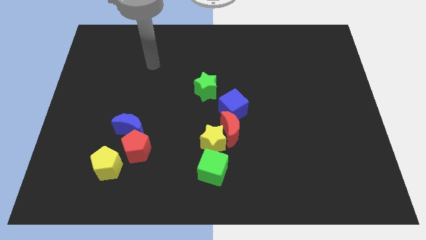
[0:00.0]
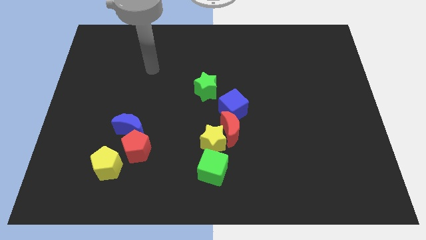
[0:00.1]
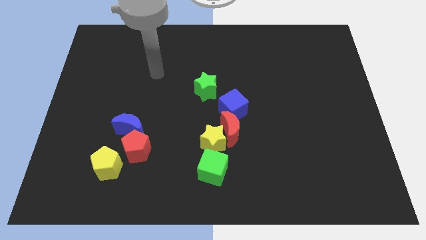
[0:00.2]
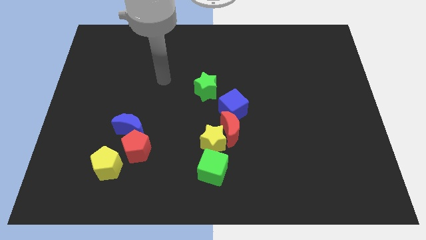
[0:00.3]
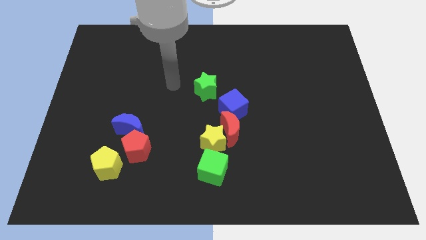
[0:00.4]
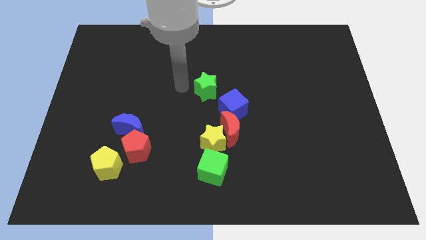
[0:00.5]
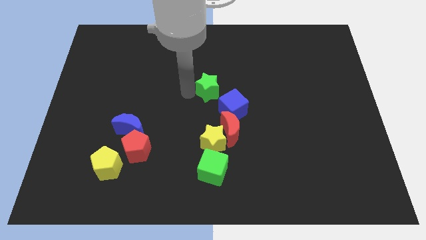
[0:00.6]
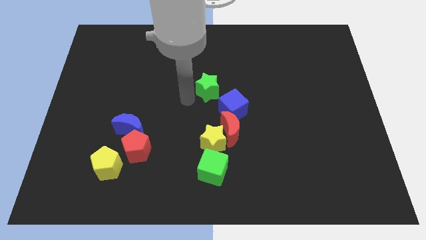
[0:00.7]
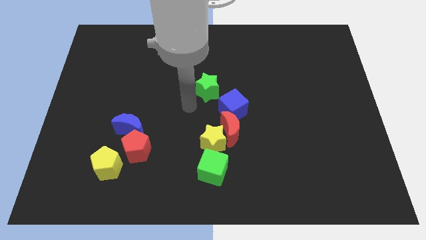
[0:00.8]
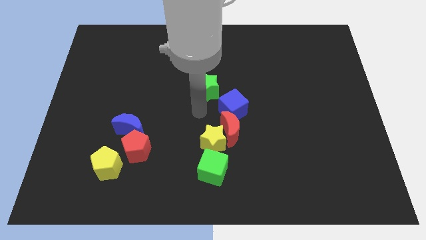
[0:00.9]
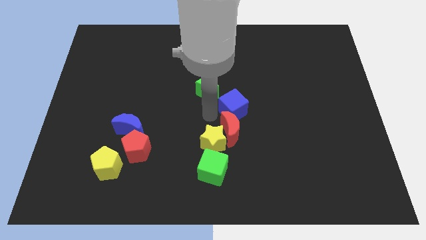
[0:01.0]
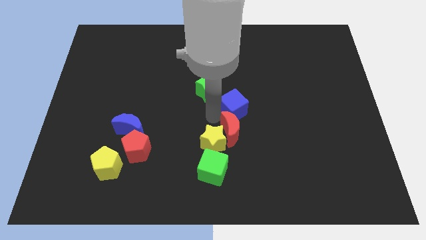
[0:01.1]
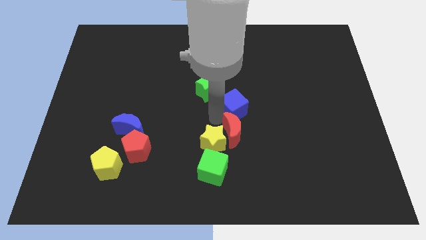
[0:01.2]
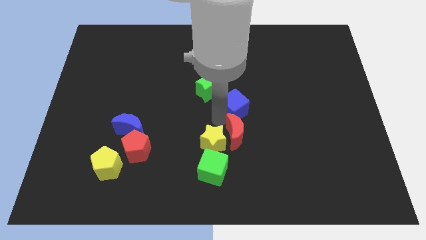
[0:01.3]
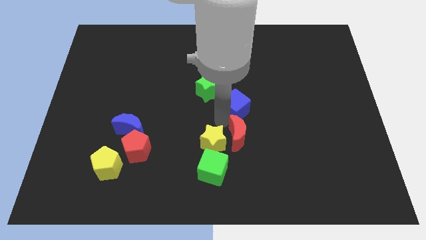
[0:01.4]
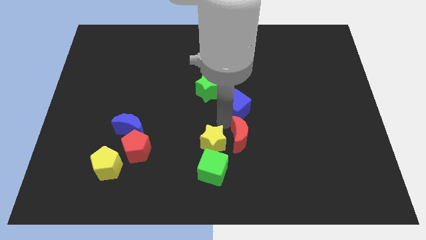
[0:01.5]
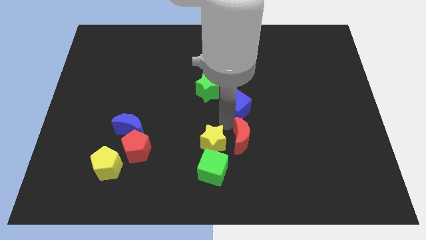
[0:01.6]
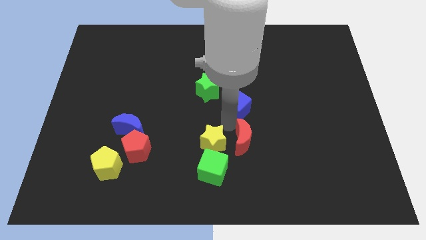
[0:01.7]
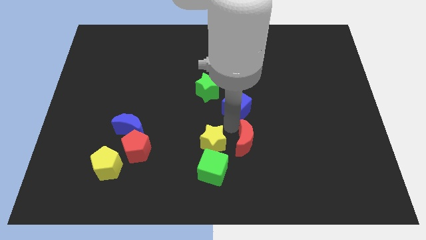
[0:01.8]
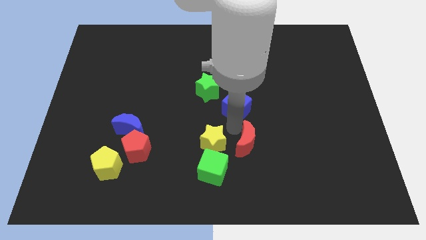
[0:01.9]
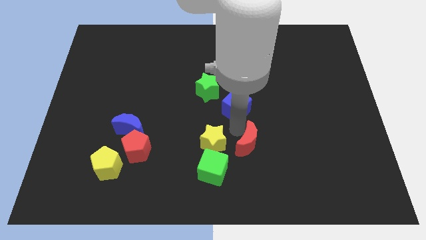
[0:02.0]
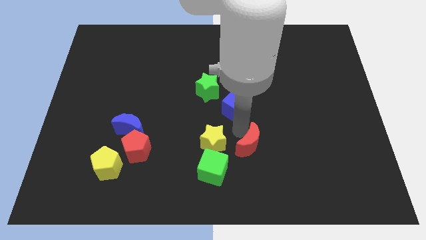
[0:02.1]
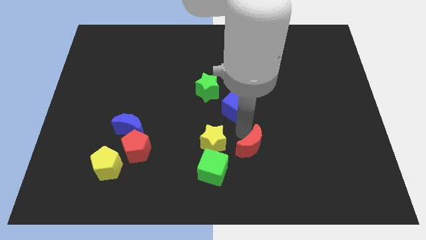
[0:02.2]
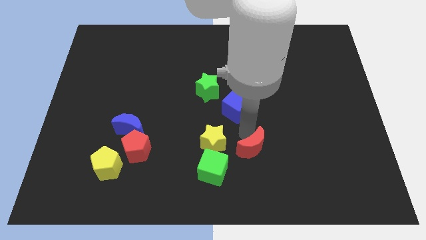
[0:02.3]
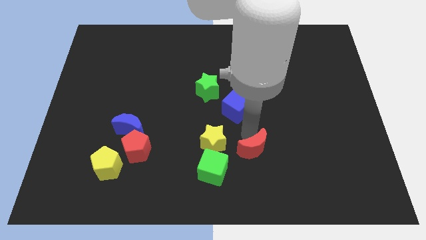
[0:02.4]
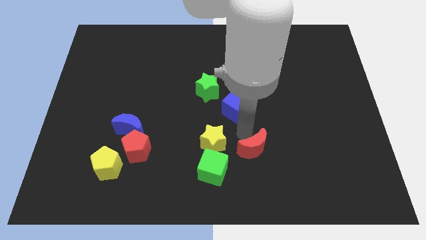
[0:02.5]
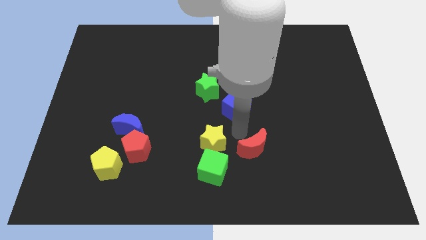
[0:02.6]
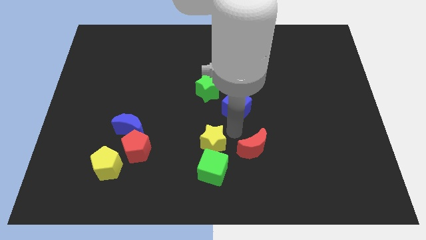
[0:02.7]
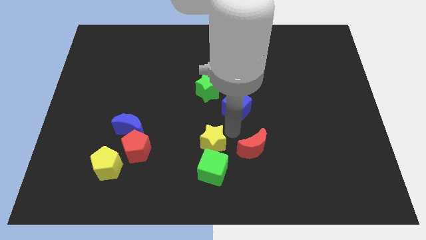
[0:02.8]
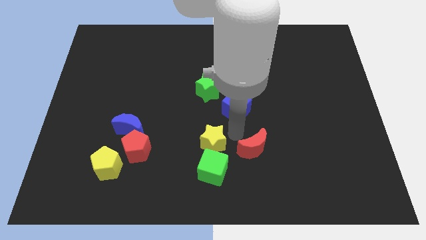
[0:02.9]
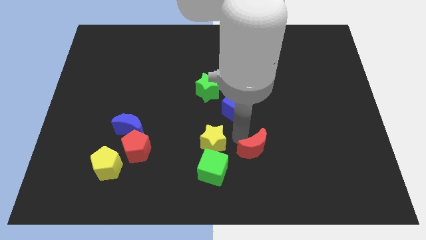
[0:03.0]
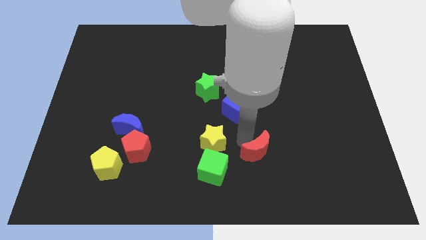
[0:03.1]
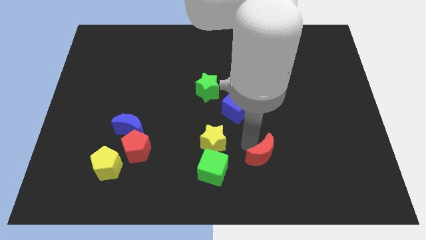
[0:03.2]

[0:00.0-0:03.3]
separate the red moon from the yellow star and blue cube

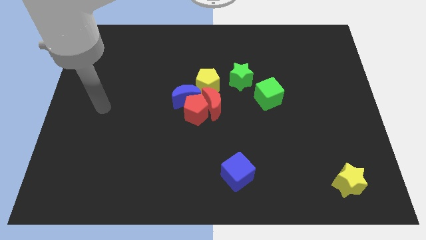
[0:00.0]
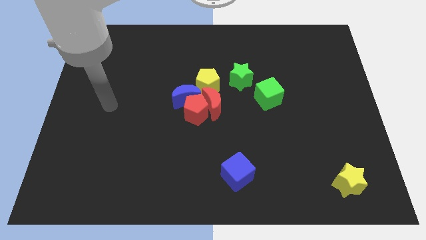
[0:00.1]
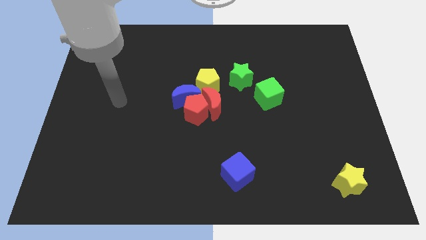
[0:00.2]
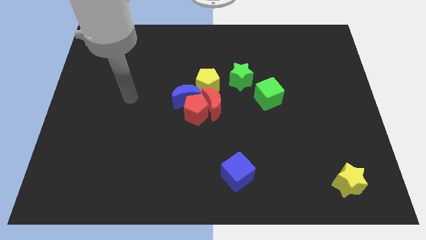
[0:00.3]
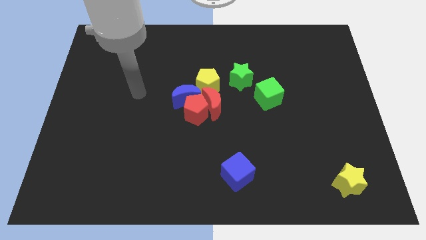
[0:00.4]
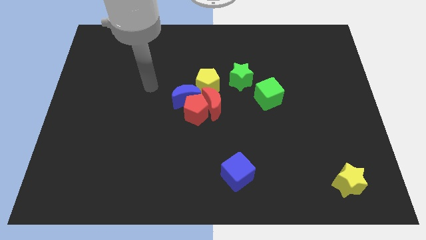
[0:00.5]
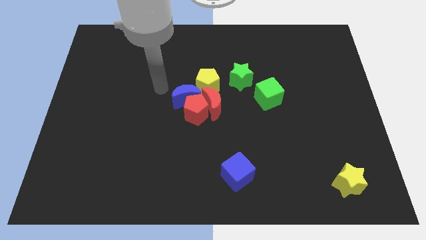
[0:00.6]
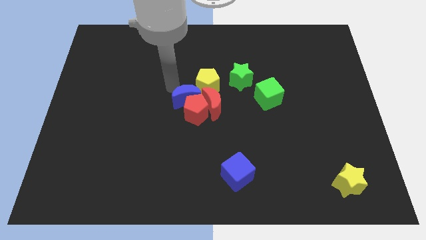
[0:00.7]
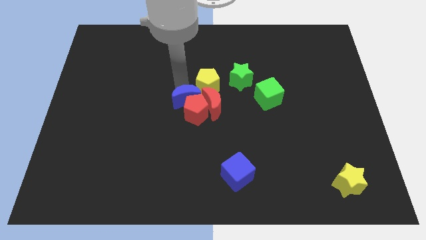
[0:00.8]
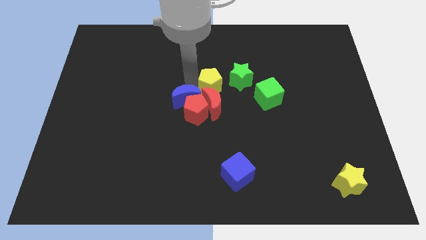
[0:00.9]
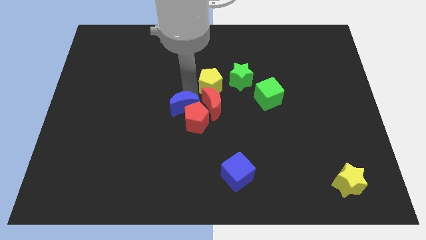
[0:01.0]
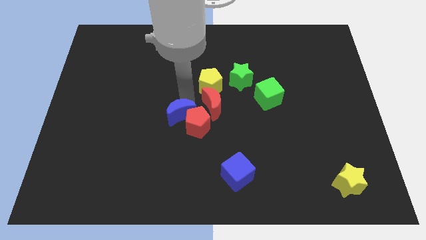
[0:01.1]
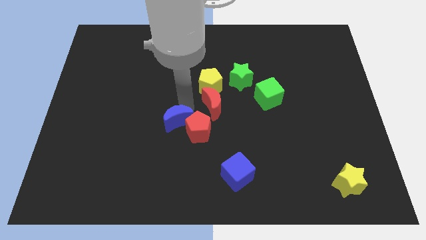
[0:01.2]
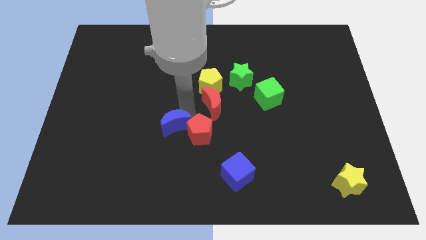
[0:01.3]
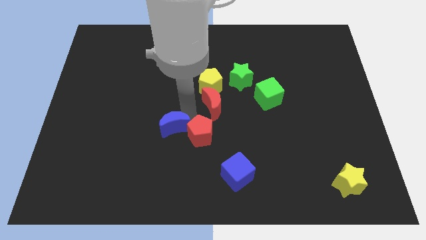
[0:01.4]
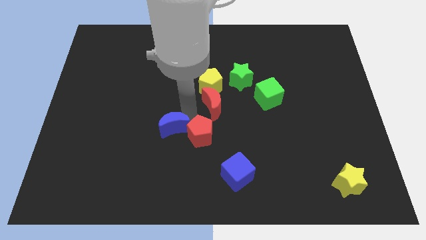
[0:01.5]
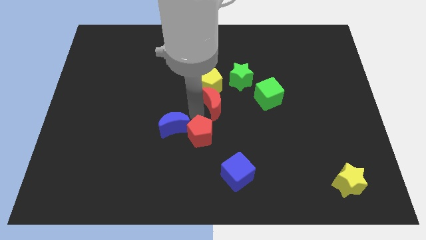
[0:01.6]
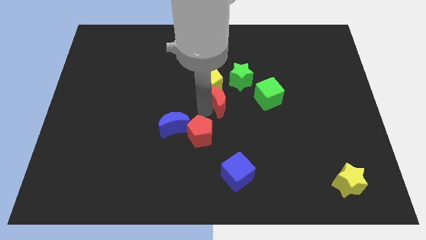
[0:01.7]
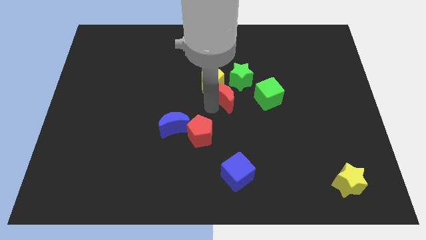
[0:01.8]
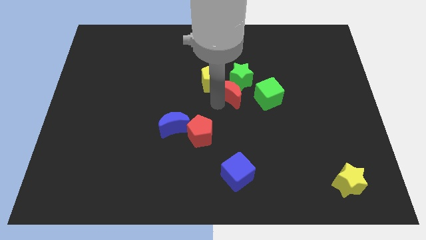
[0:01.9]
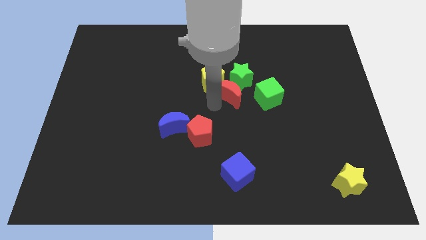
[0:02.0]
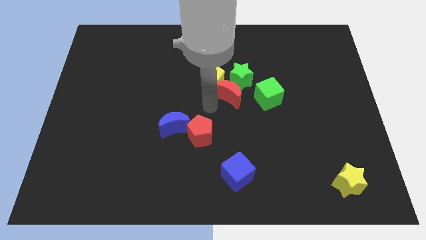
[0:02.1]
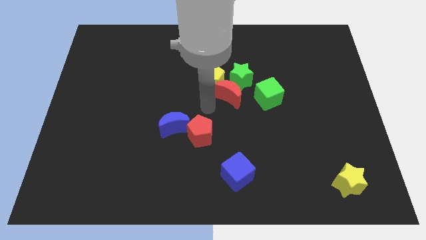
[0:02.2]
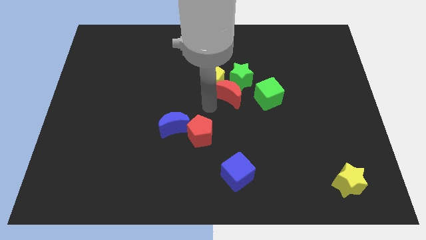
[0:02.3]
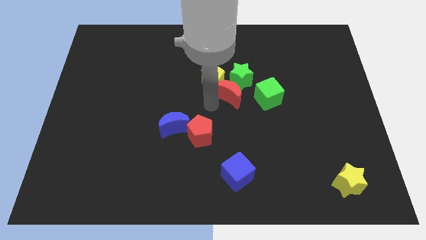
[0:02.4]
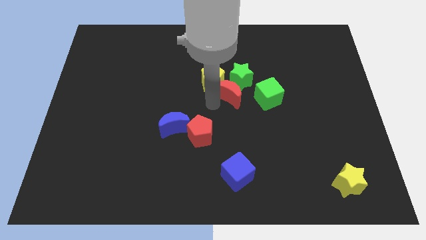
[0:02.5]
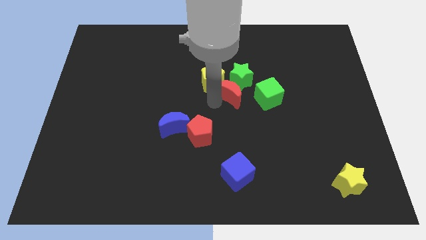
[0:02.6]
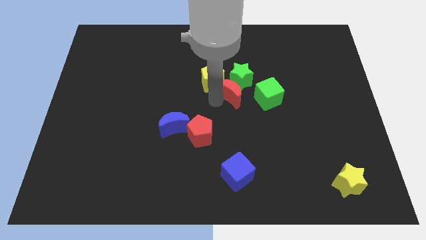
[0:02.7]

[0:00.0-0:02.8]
separate the red moon from the red pentagon, yellow pentagon, and blue moon

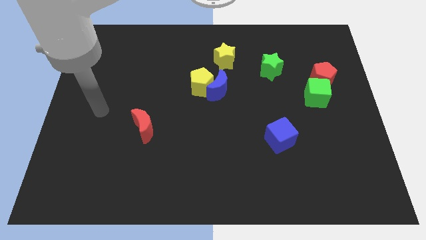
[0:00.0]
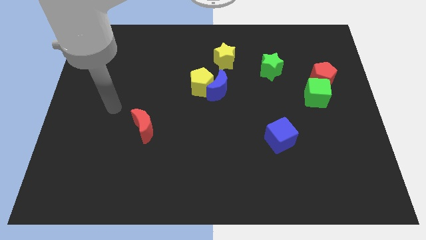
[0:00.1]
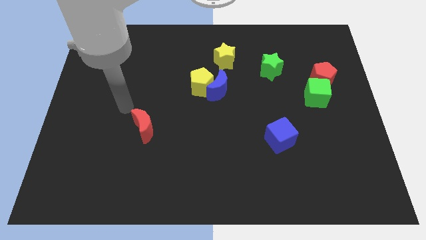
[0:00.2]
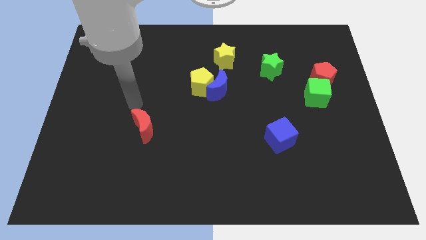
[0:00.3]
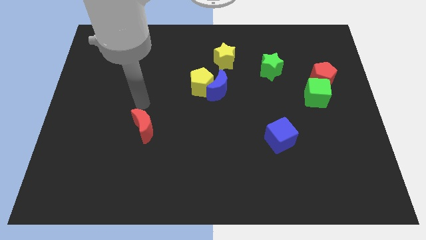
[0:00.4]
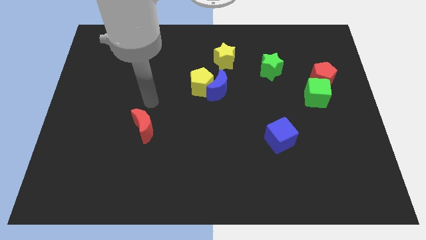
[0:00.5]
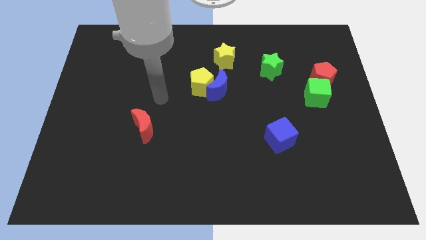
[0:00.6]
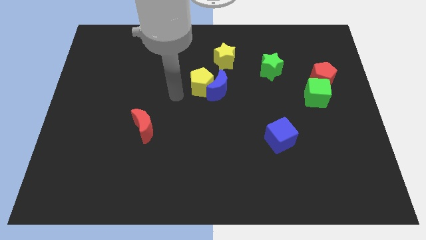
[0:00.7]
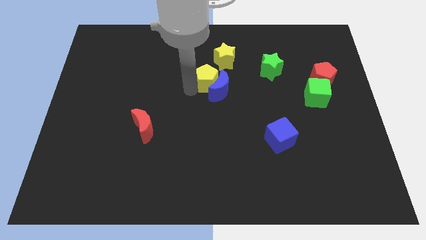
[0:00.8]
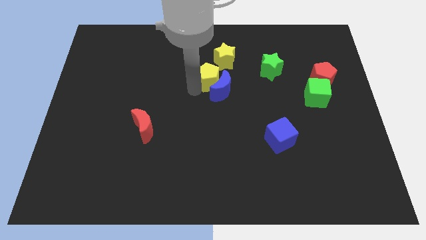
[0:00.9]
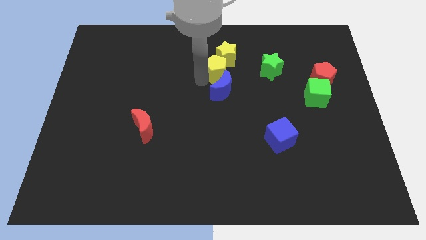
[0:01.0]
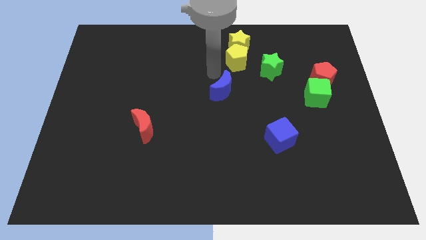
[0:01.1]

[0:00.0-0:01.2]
pull the blue moon apart from the yellow pentagon

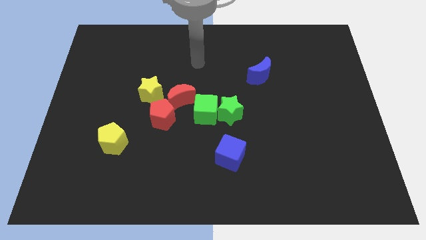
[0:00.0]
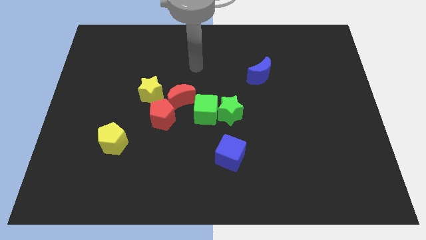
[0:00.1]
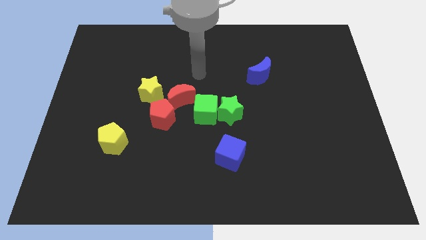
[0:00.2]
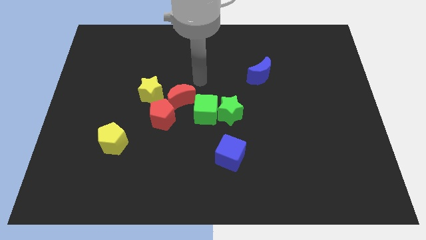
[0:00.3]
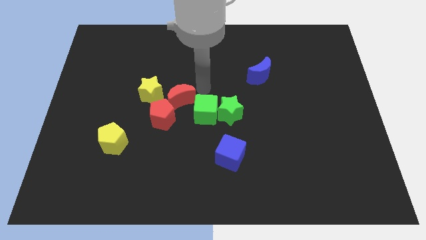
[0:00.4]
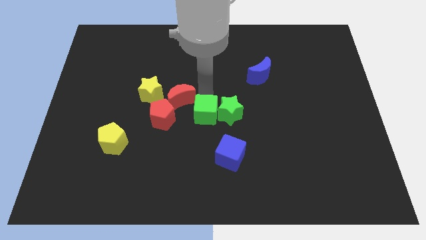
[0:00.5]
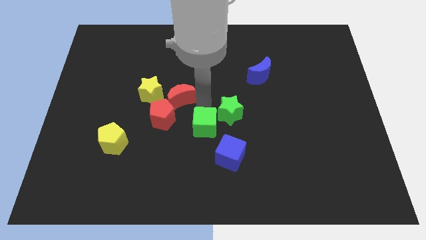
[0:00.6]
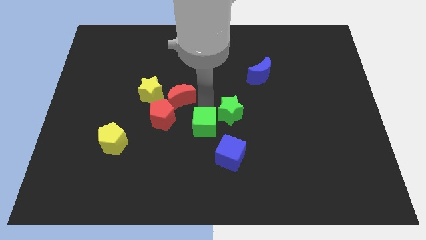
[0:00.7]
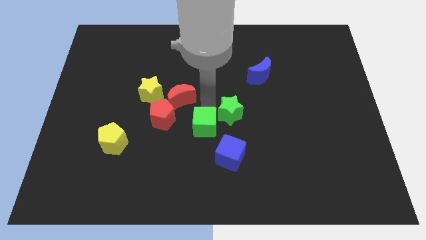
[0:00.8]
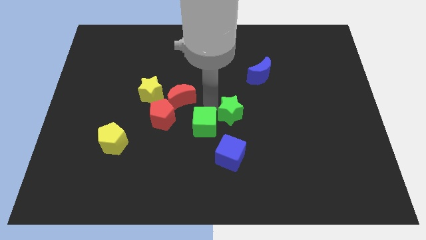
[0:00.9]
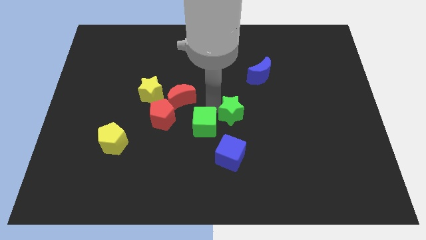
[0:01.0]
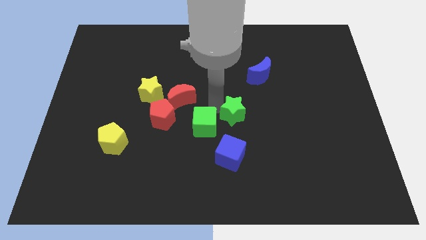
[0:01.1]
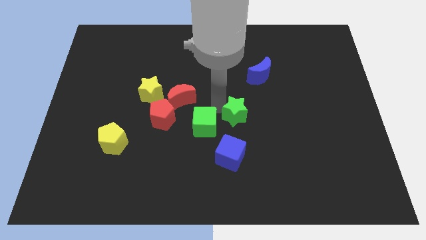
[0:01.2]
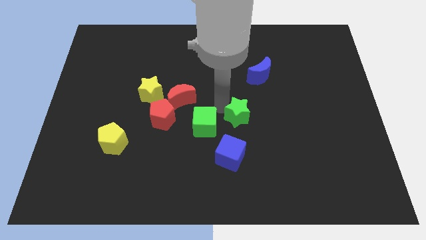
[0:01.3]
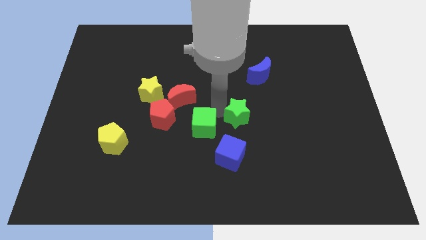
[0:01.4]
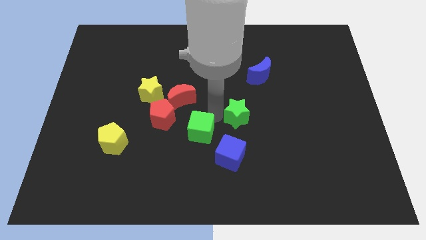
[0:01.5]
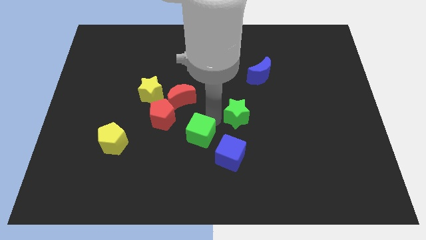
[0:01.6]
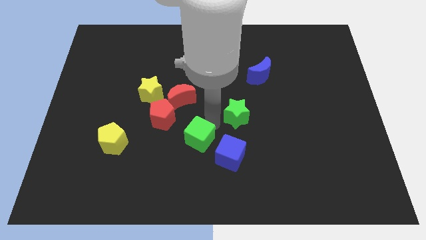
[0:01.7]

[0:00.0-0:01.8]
pull the green star apart from the green cube

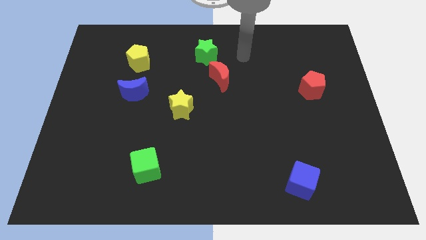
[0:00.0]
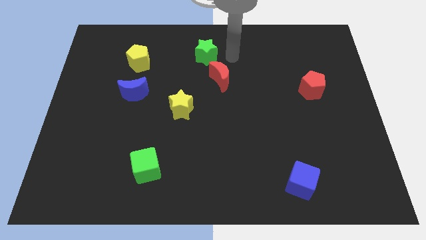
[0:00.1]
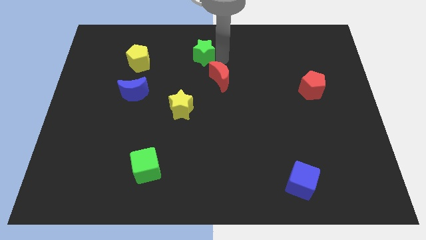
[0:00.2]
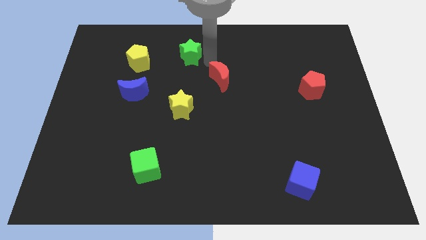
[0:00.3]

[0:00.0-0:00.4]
separate the red moon from the green star
